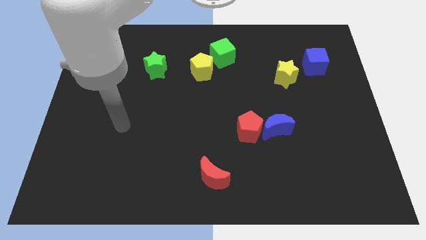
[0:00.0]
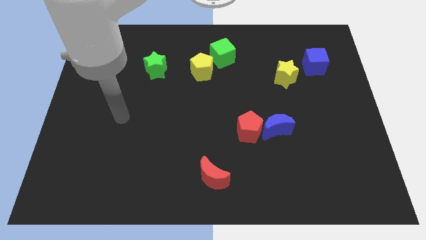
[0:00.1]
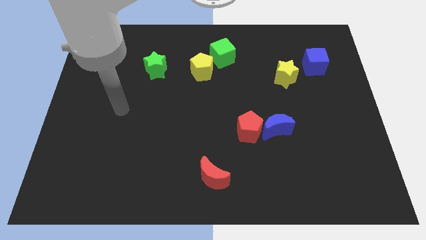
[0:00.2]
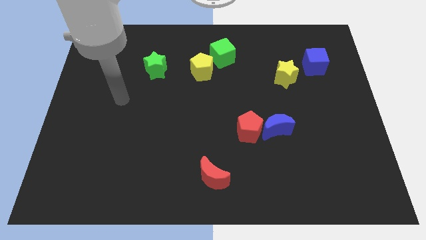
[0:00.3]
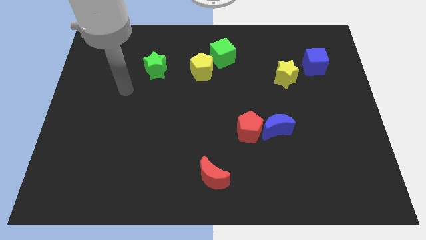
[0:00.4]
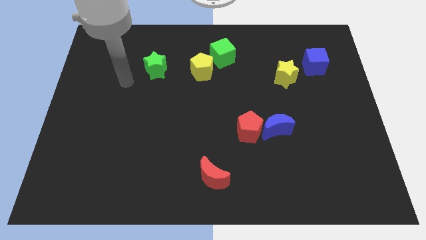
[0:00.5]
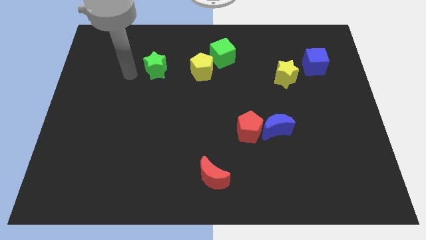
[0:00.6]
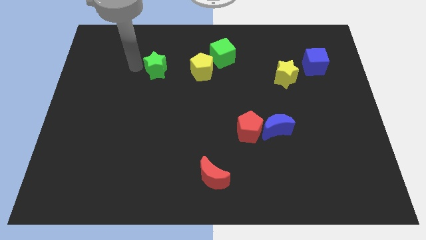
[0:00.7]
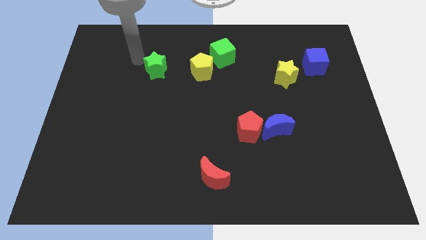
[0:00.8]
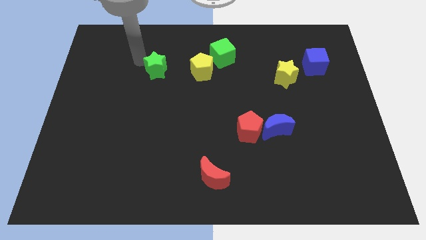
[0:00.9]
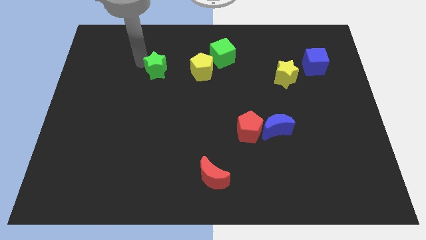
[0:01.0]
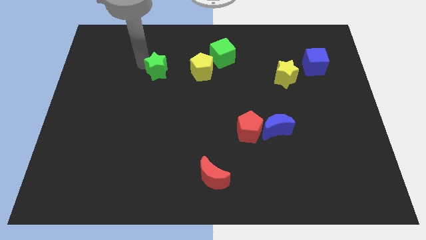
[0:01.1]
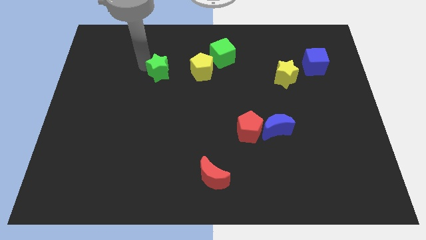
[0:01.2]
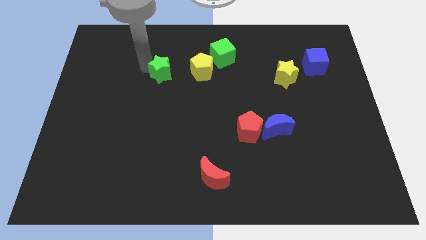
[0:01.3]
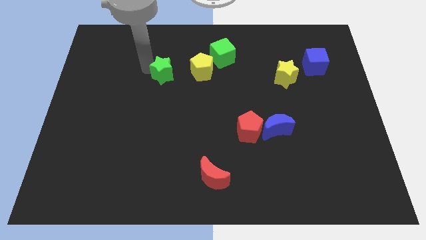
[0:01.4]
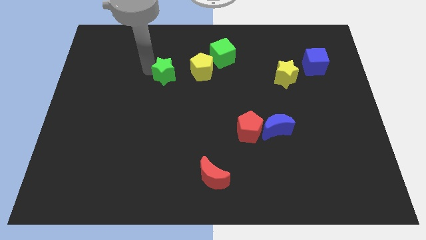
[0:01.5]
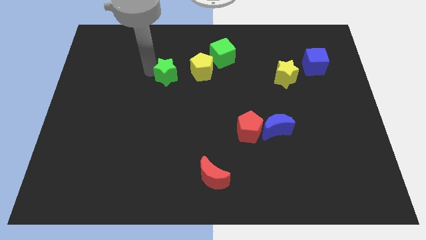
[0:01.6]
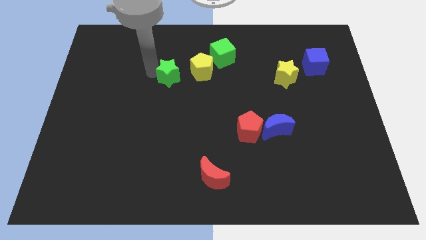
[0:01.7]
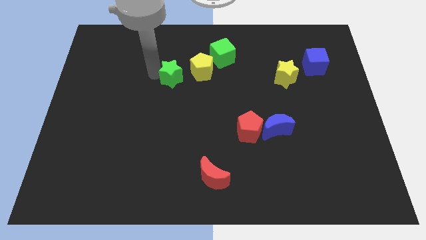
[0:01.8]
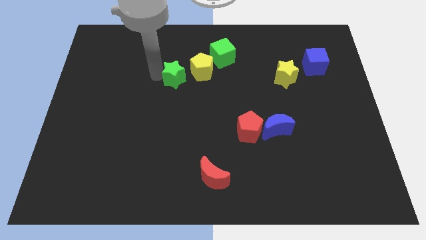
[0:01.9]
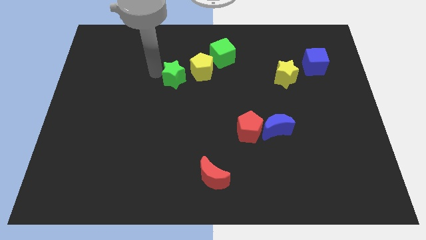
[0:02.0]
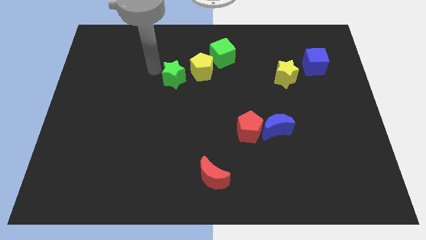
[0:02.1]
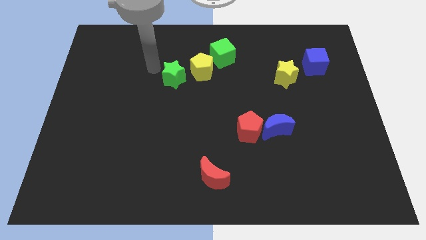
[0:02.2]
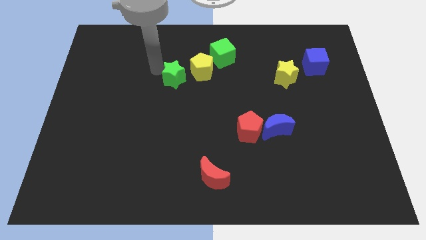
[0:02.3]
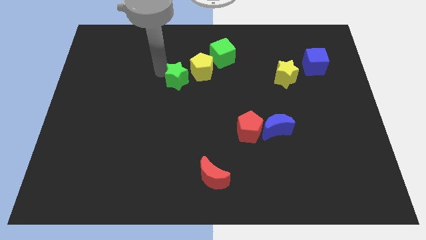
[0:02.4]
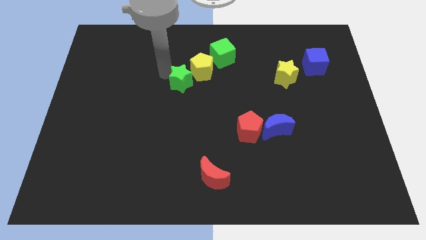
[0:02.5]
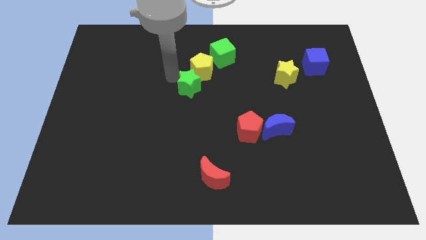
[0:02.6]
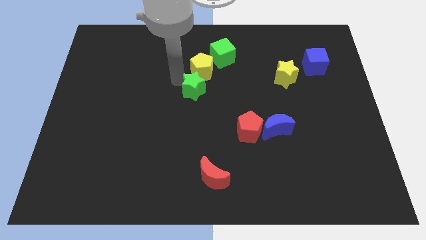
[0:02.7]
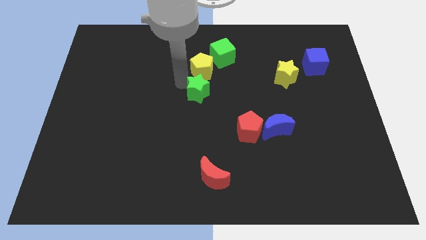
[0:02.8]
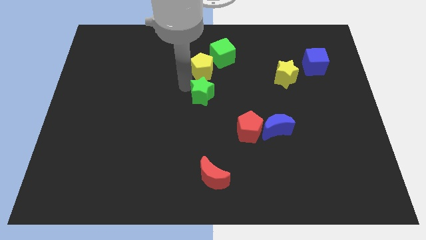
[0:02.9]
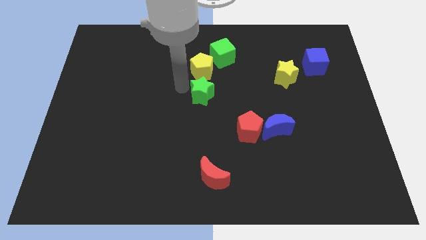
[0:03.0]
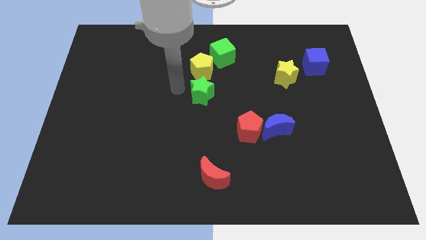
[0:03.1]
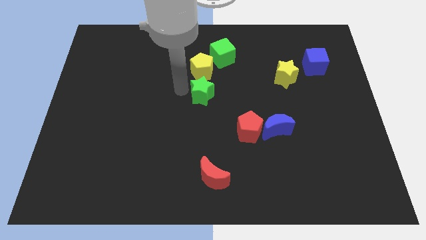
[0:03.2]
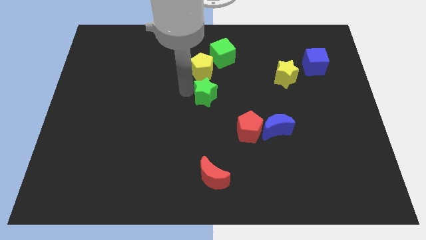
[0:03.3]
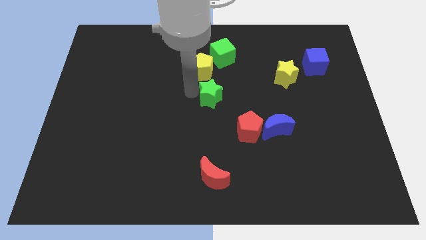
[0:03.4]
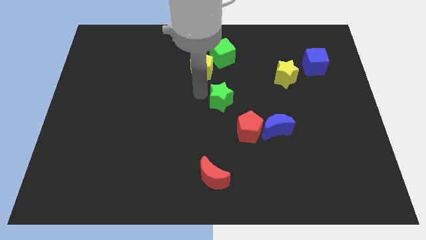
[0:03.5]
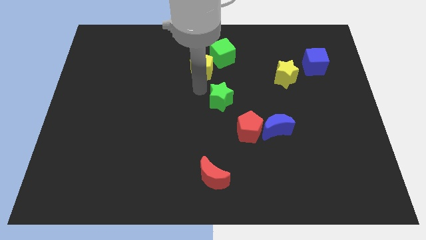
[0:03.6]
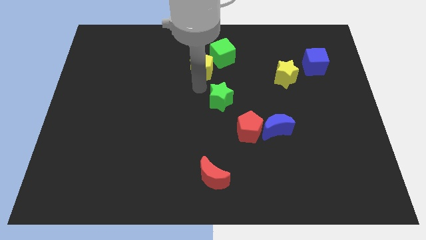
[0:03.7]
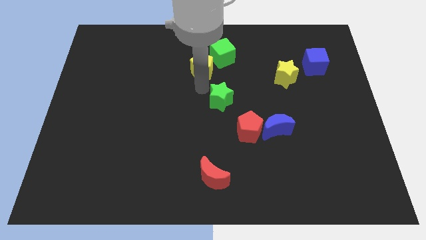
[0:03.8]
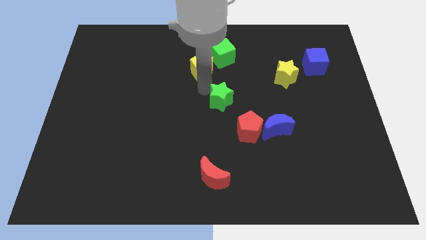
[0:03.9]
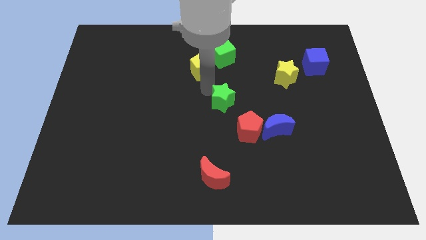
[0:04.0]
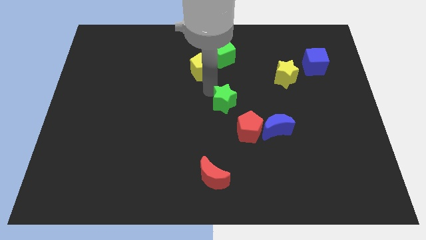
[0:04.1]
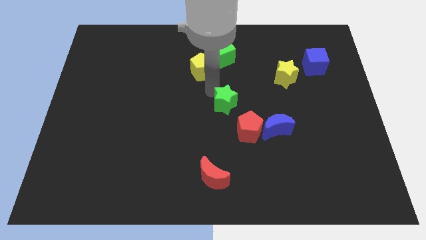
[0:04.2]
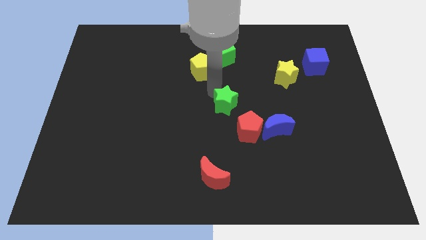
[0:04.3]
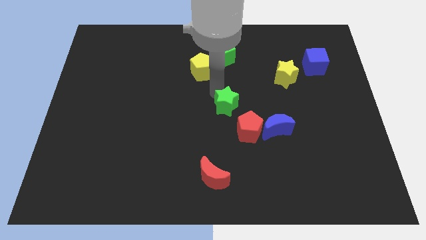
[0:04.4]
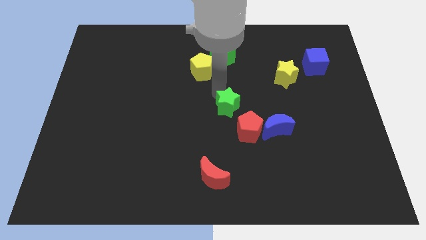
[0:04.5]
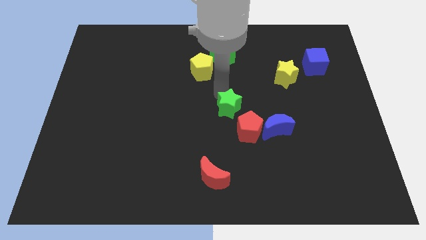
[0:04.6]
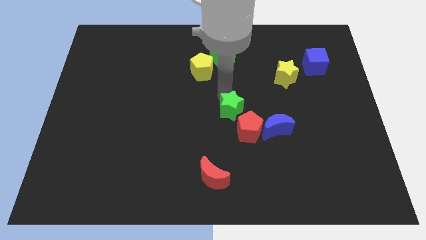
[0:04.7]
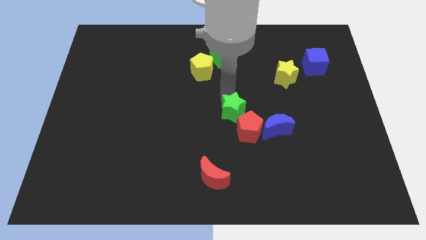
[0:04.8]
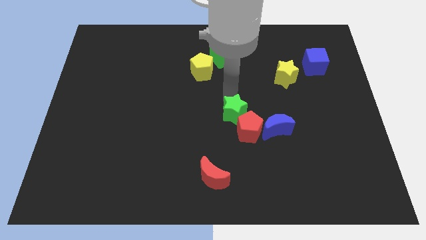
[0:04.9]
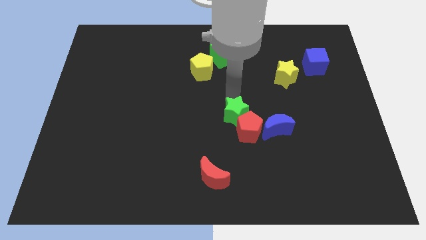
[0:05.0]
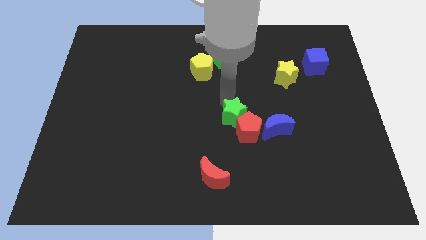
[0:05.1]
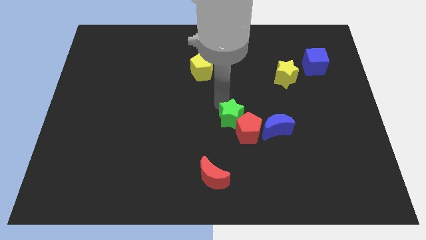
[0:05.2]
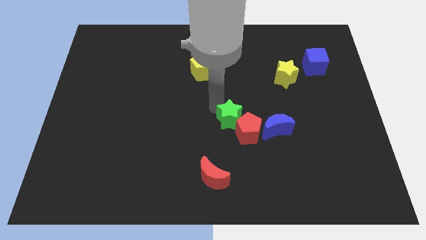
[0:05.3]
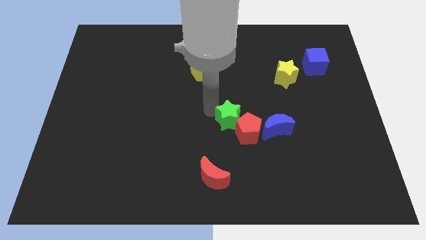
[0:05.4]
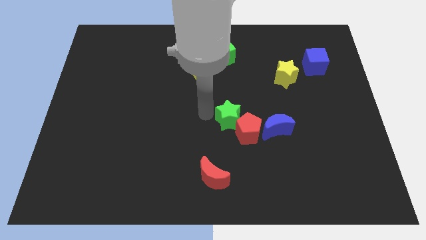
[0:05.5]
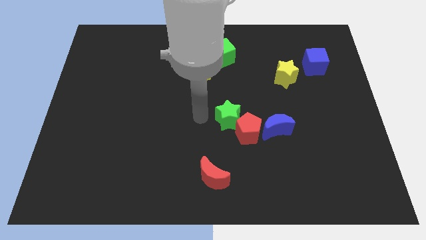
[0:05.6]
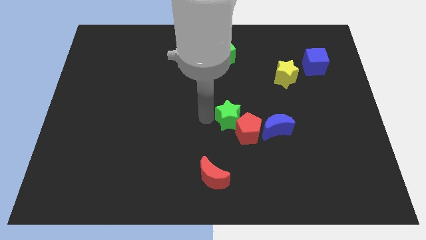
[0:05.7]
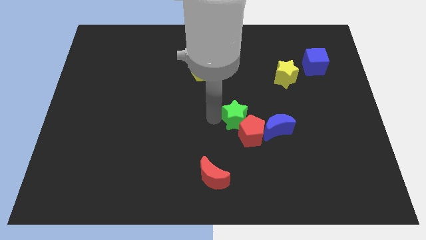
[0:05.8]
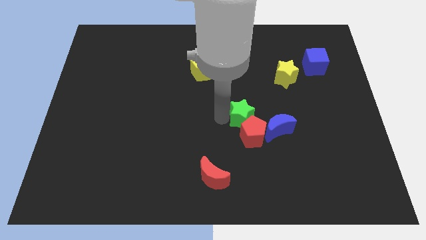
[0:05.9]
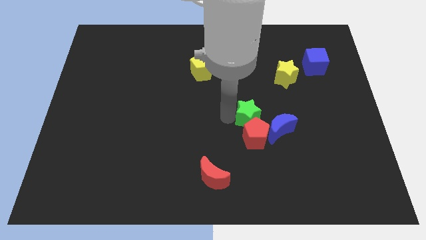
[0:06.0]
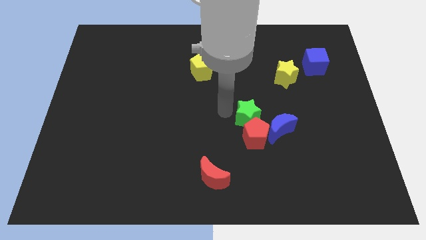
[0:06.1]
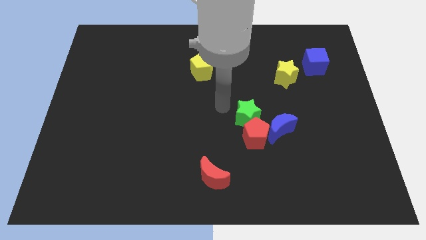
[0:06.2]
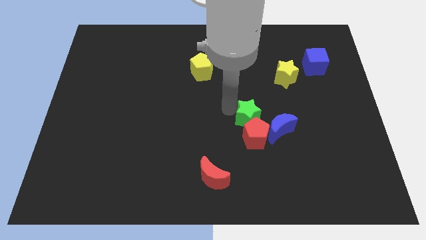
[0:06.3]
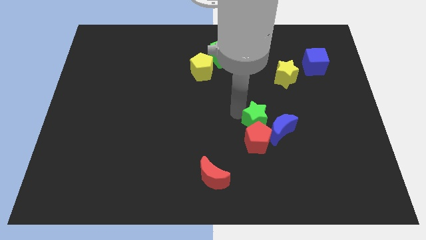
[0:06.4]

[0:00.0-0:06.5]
put the green star close to the blue moon
